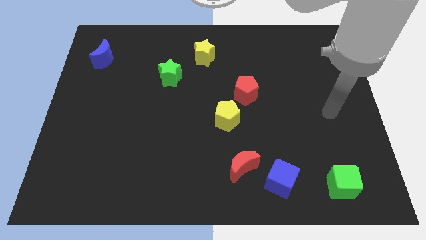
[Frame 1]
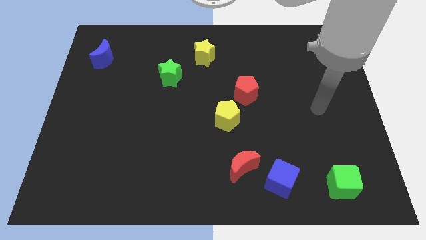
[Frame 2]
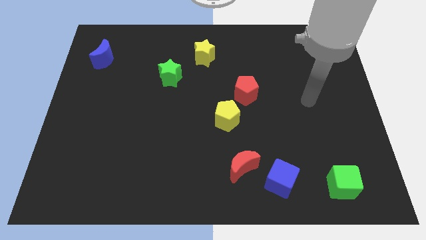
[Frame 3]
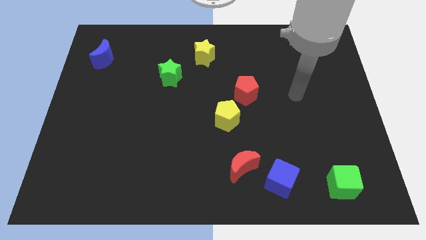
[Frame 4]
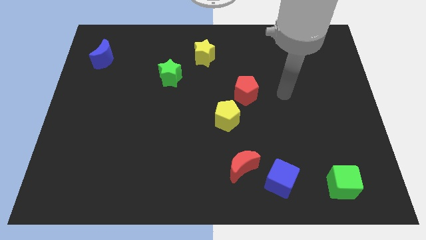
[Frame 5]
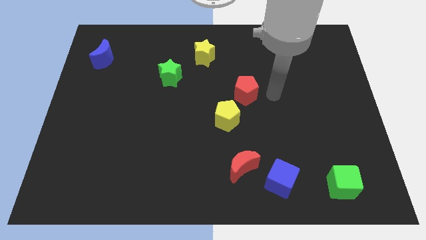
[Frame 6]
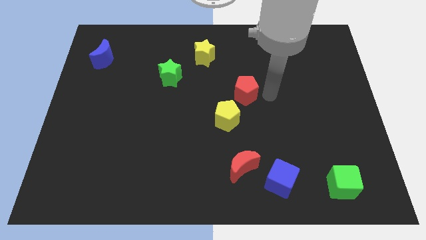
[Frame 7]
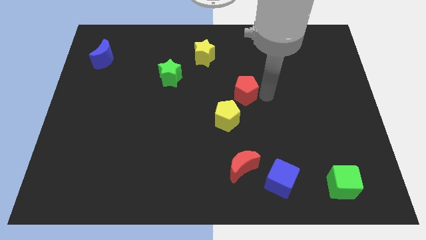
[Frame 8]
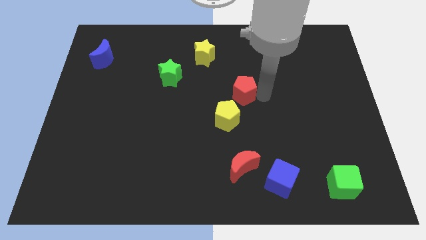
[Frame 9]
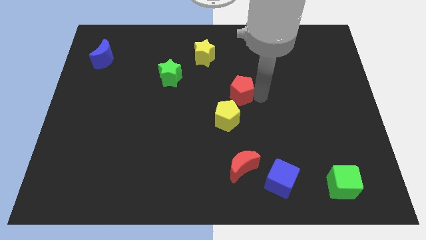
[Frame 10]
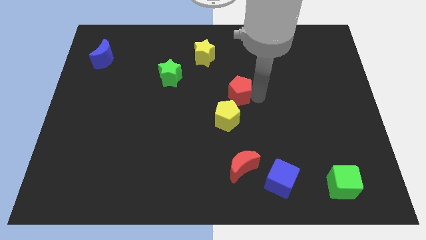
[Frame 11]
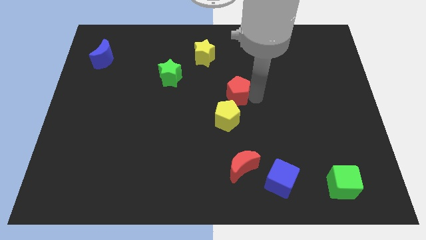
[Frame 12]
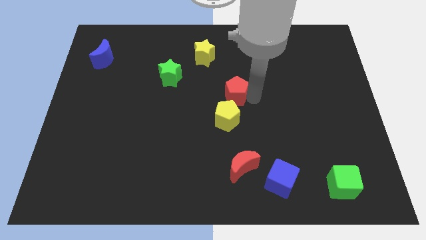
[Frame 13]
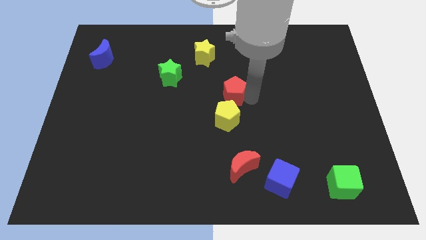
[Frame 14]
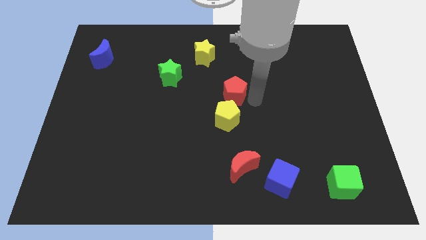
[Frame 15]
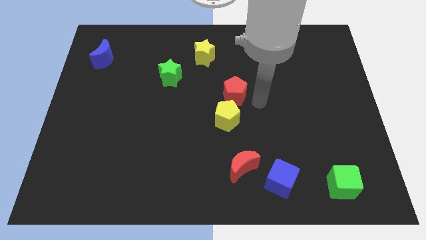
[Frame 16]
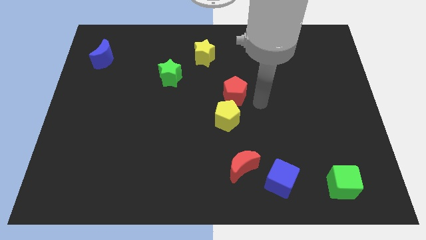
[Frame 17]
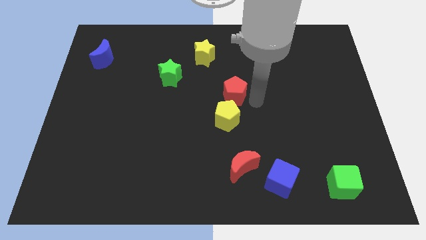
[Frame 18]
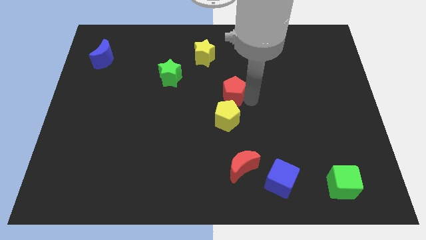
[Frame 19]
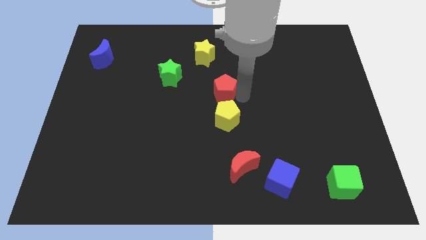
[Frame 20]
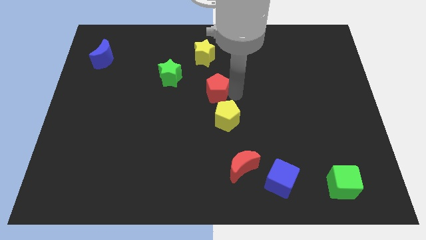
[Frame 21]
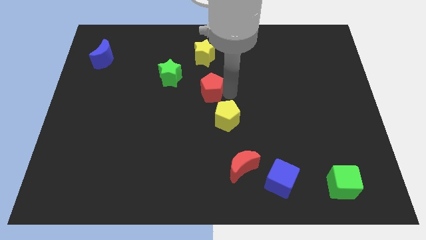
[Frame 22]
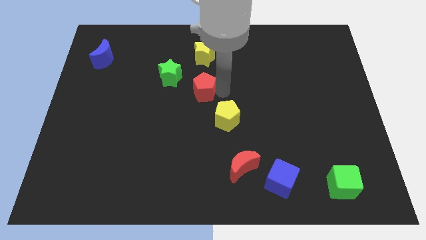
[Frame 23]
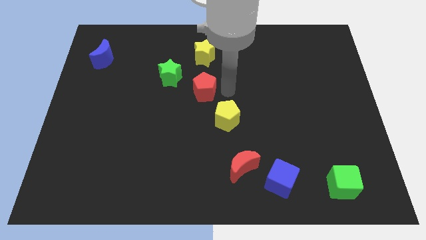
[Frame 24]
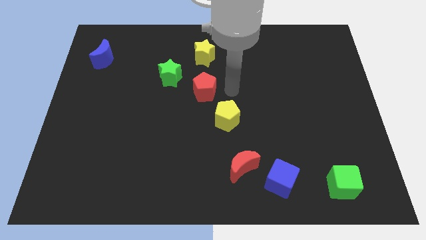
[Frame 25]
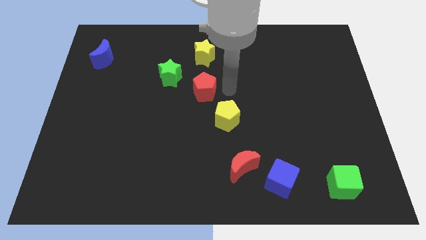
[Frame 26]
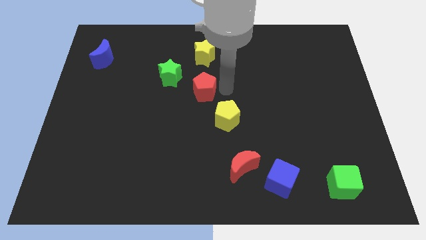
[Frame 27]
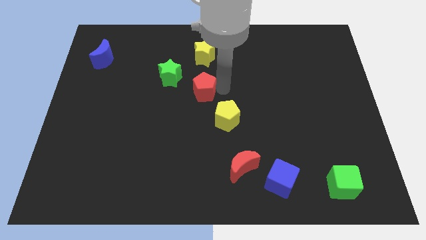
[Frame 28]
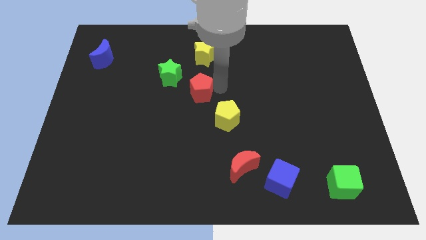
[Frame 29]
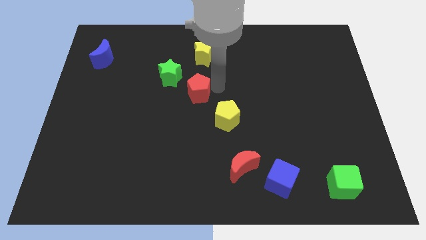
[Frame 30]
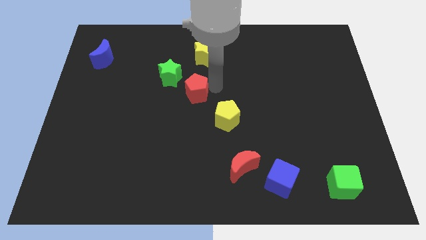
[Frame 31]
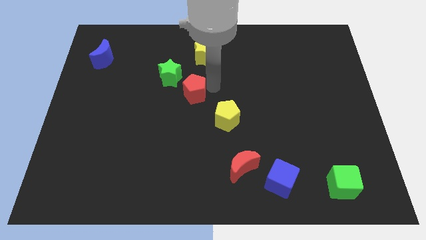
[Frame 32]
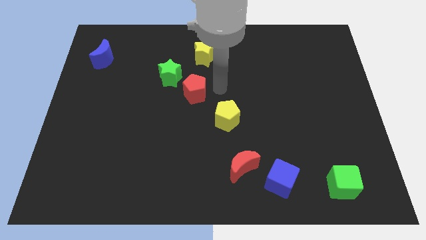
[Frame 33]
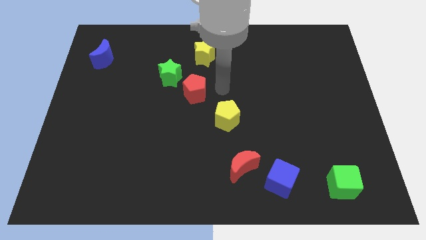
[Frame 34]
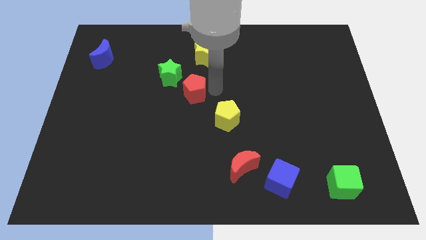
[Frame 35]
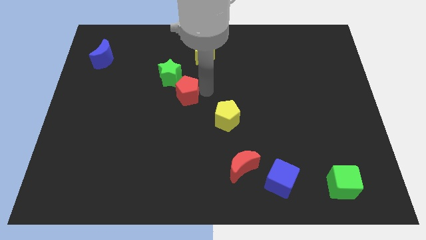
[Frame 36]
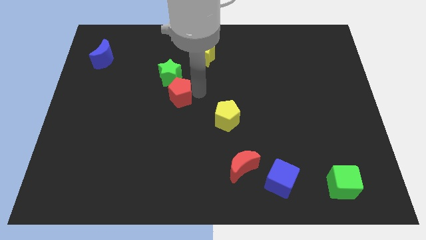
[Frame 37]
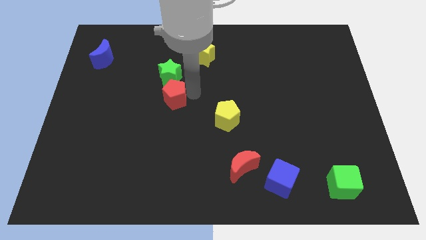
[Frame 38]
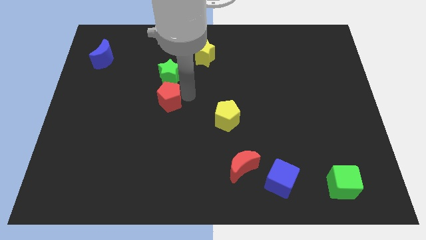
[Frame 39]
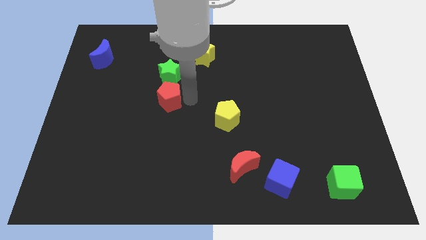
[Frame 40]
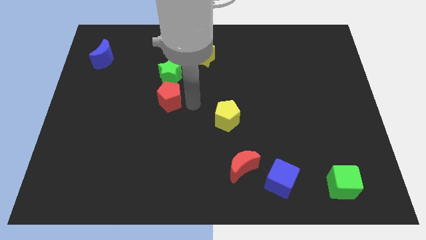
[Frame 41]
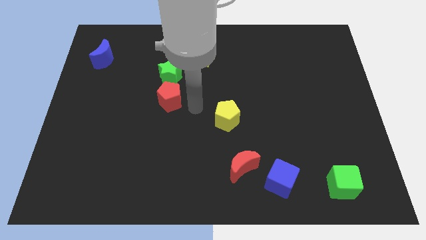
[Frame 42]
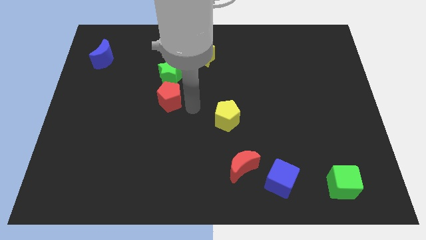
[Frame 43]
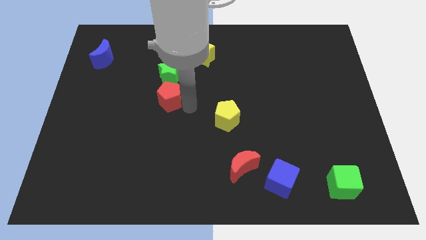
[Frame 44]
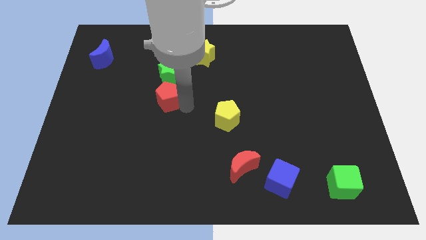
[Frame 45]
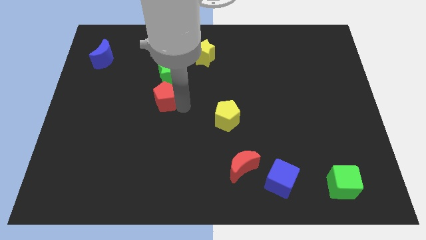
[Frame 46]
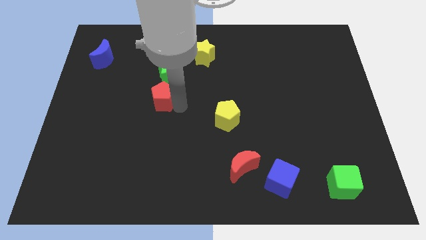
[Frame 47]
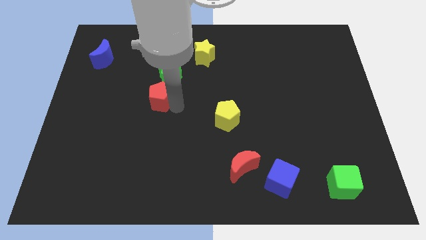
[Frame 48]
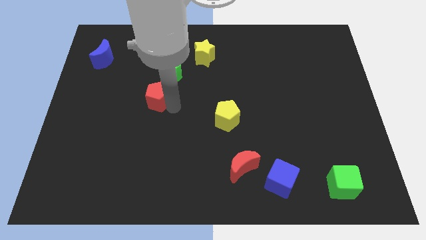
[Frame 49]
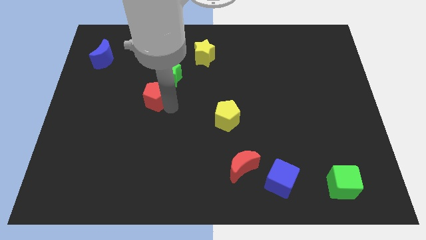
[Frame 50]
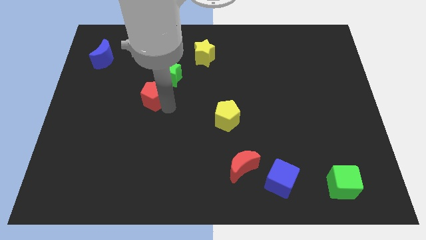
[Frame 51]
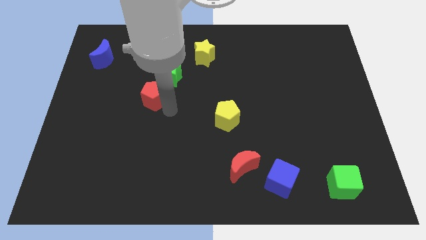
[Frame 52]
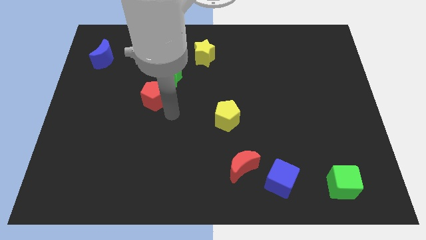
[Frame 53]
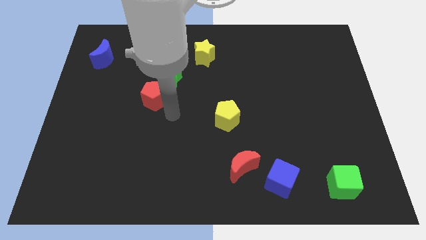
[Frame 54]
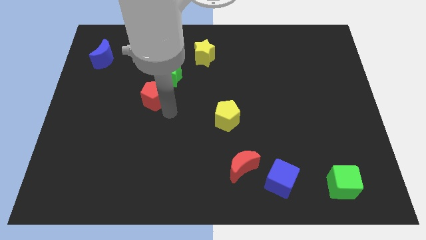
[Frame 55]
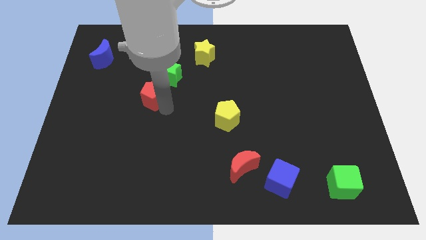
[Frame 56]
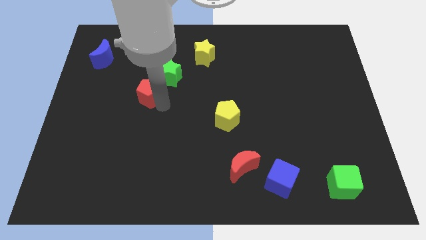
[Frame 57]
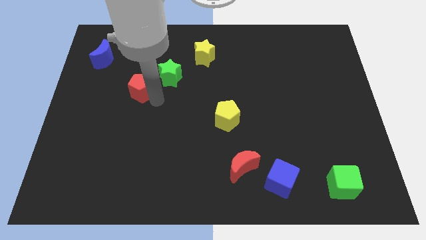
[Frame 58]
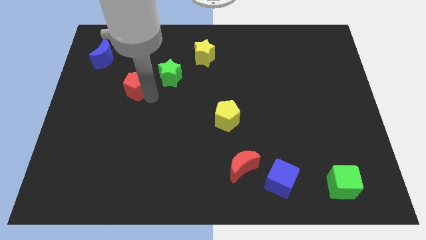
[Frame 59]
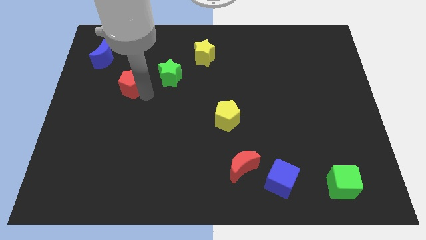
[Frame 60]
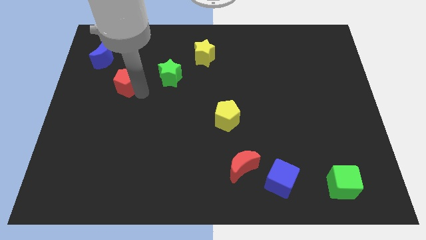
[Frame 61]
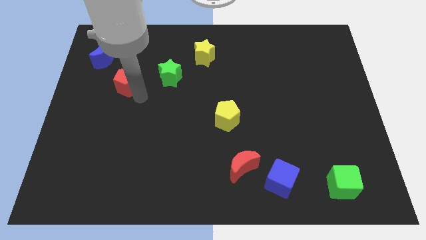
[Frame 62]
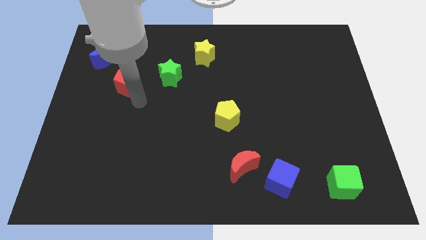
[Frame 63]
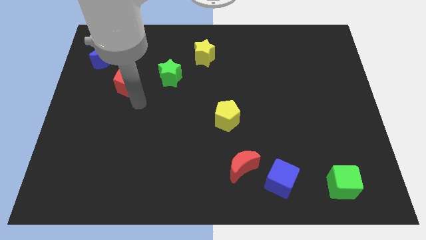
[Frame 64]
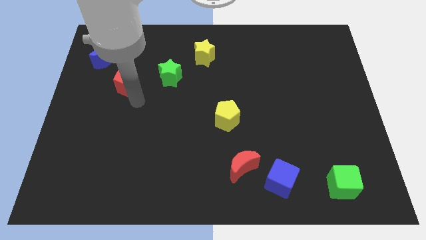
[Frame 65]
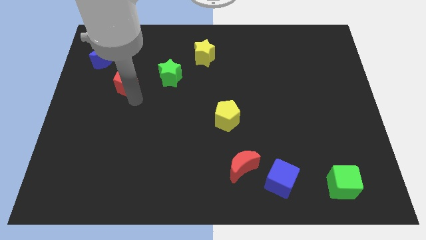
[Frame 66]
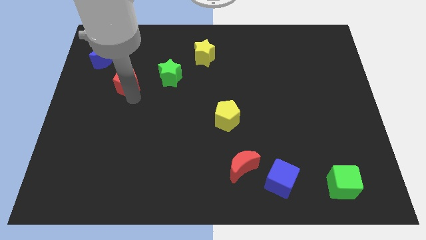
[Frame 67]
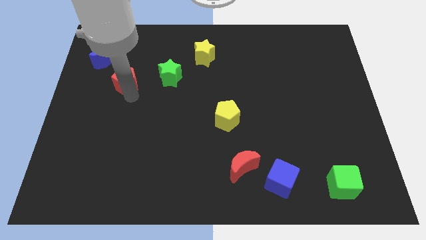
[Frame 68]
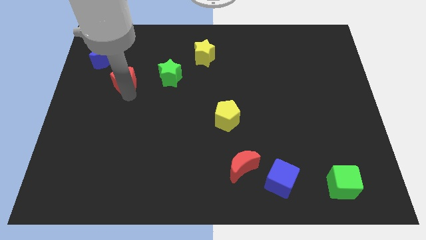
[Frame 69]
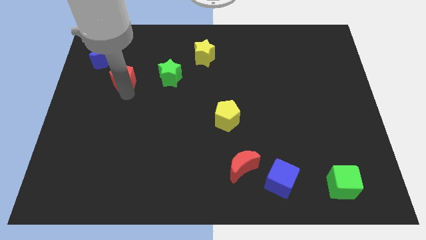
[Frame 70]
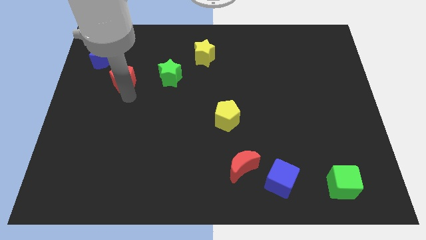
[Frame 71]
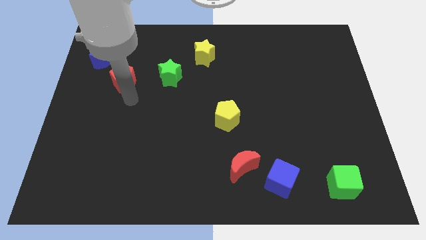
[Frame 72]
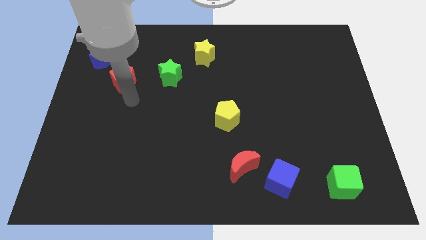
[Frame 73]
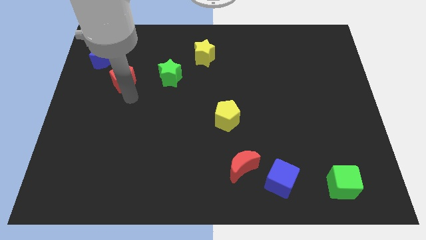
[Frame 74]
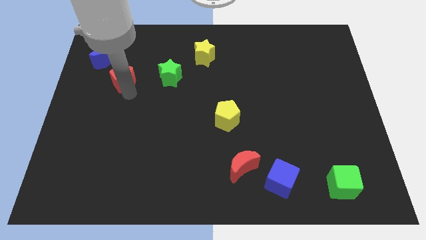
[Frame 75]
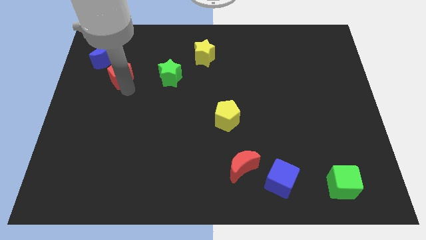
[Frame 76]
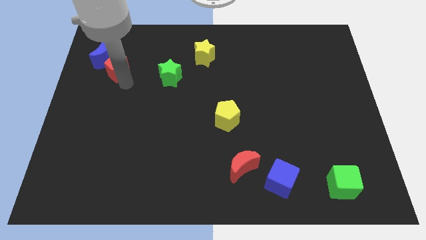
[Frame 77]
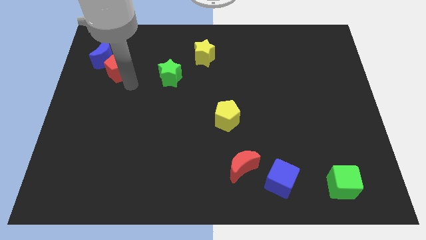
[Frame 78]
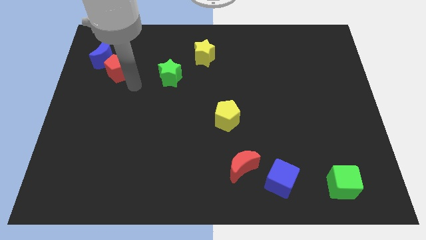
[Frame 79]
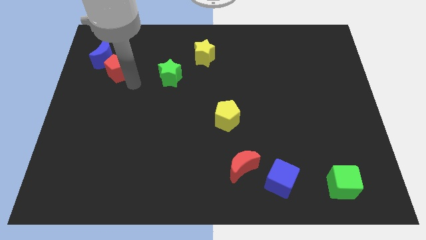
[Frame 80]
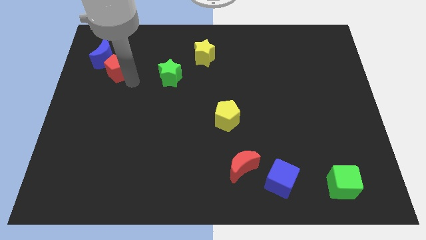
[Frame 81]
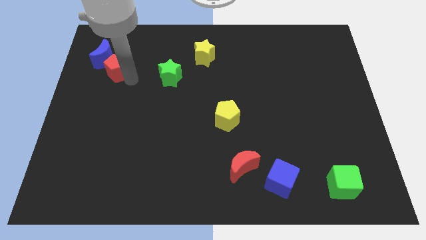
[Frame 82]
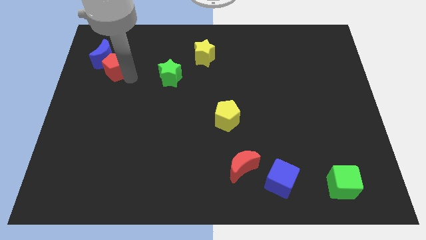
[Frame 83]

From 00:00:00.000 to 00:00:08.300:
move the red pentagon to the blue moon
